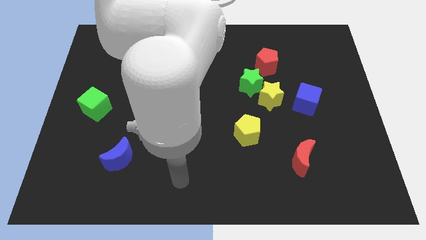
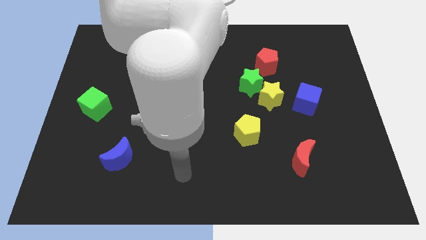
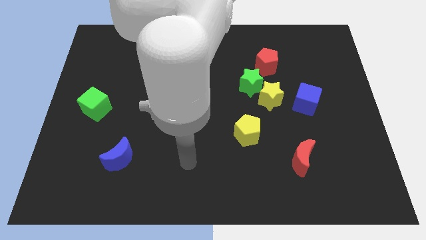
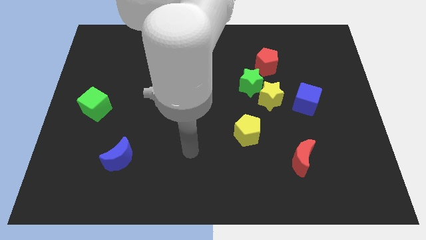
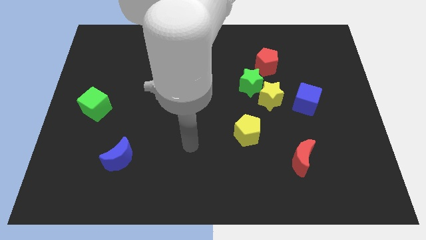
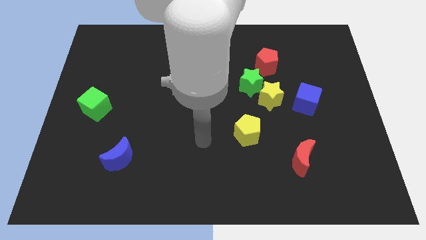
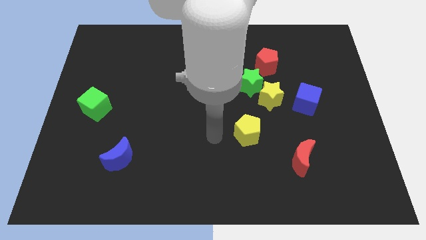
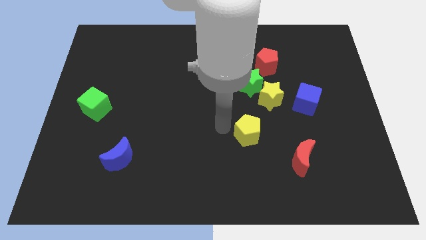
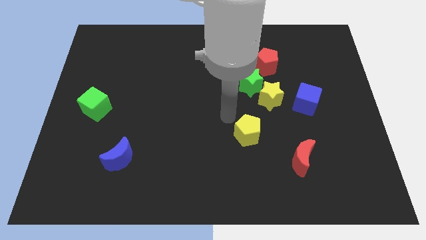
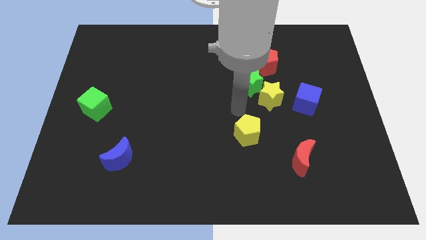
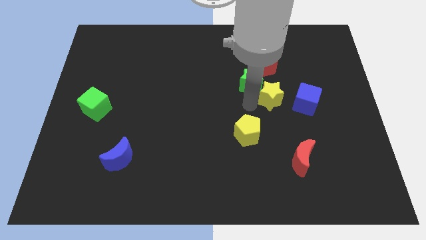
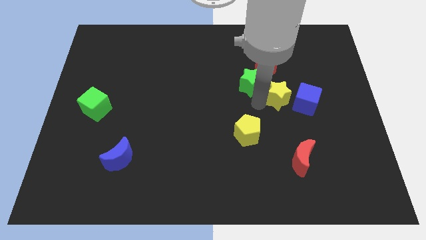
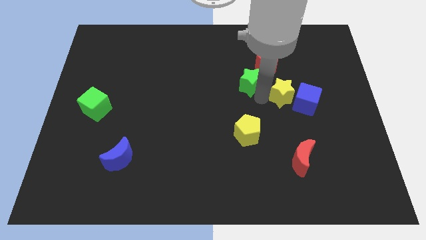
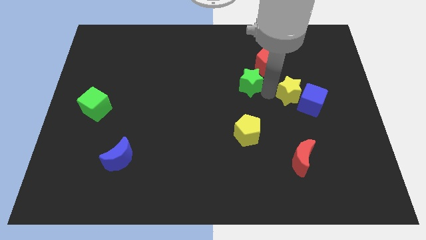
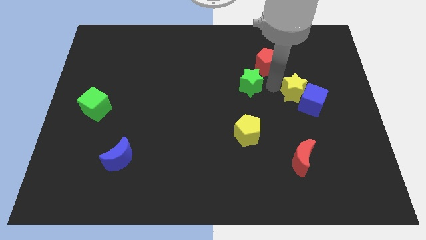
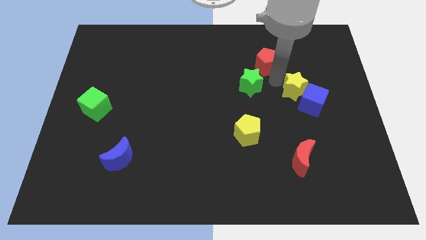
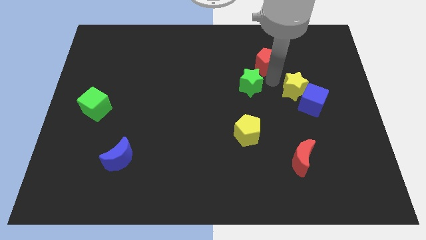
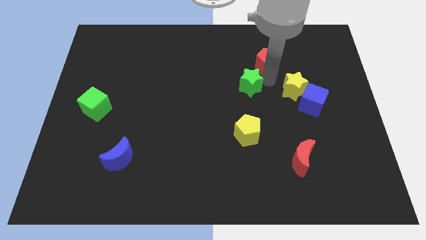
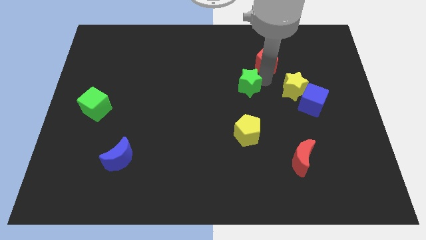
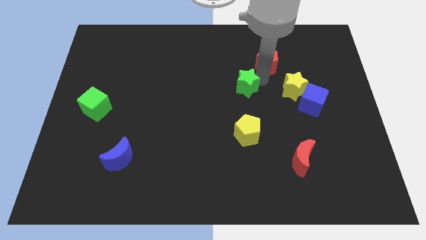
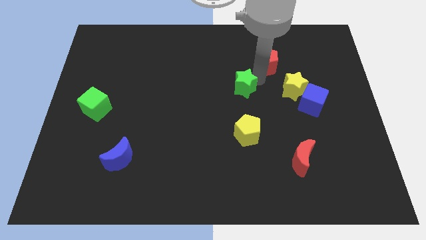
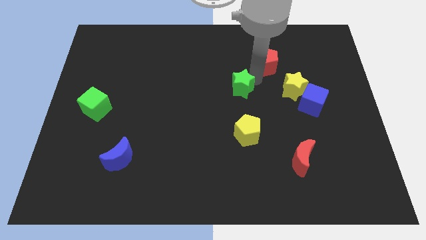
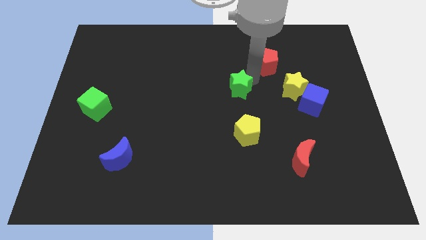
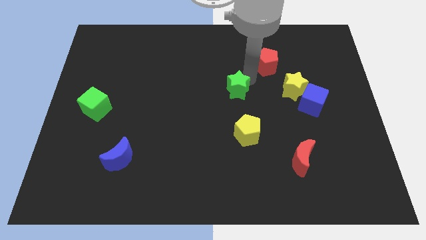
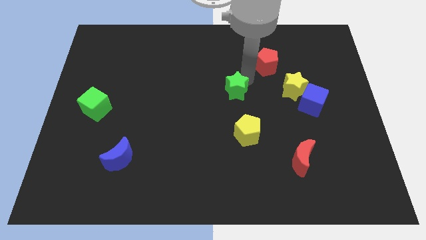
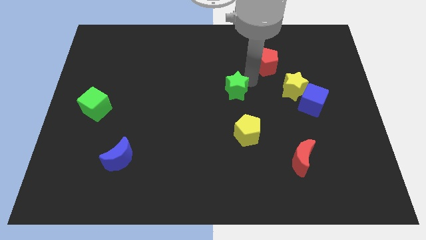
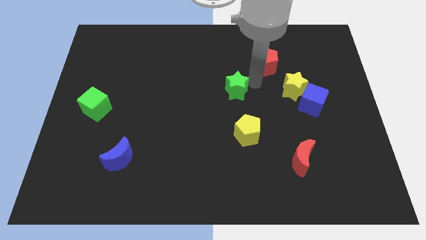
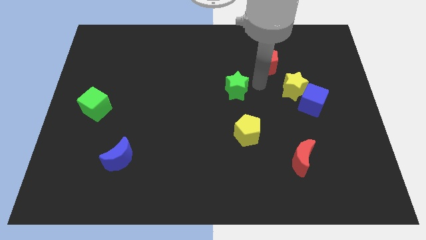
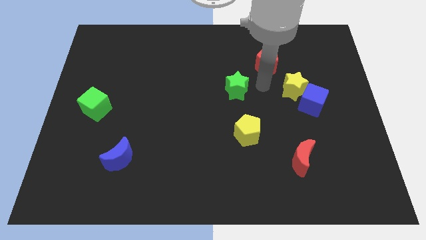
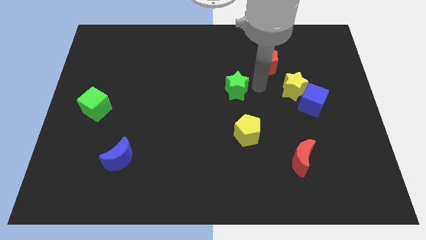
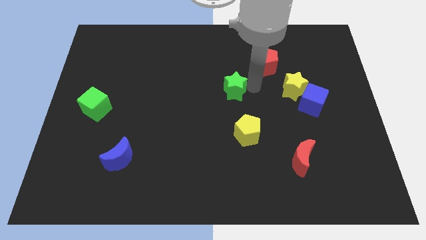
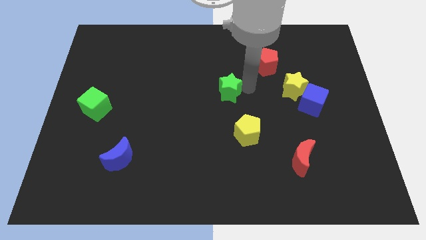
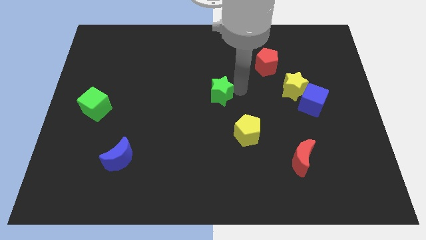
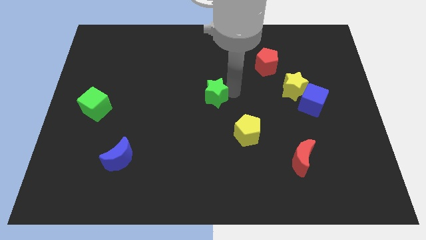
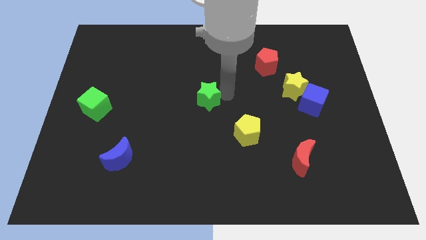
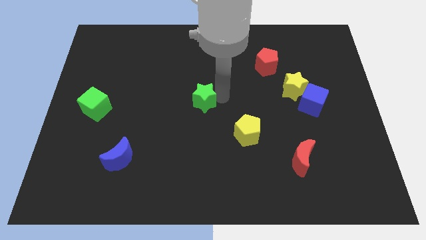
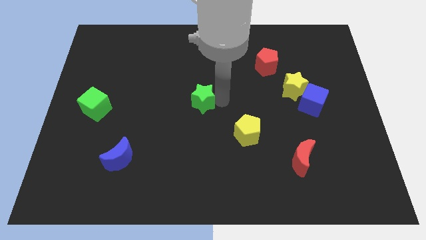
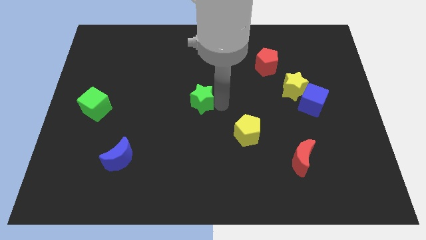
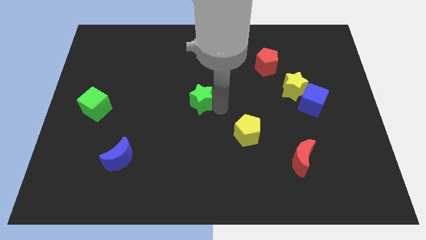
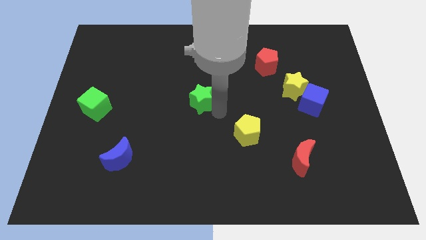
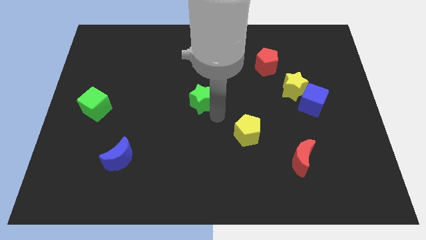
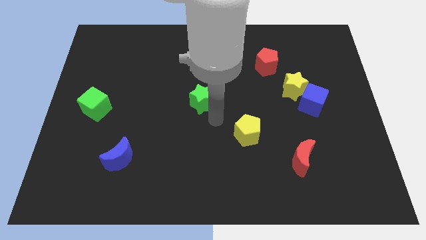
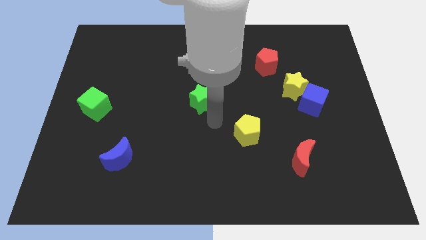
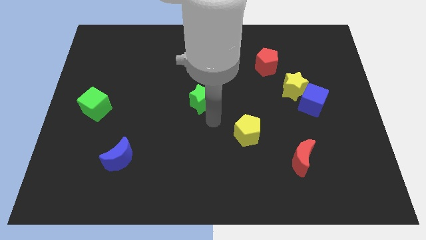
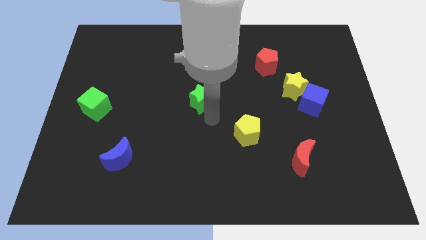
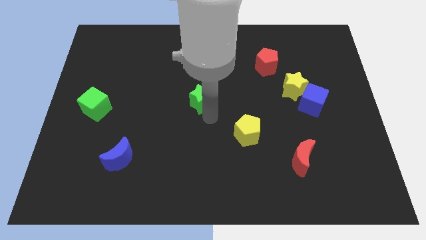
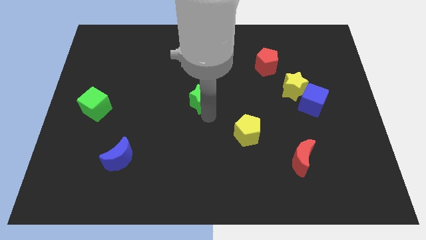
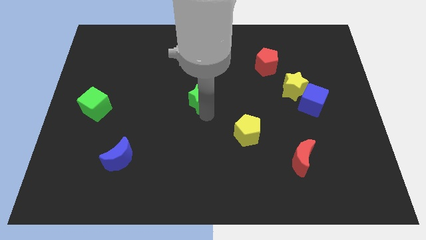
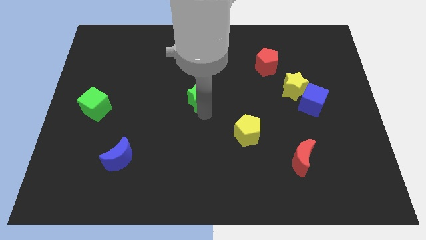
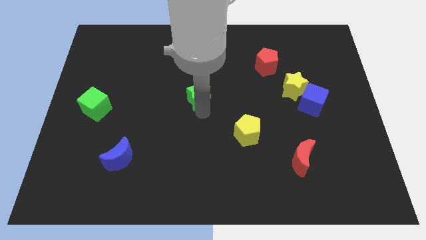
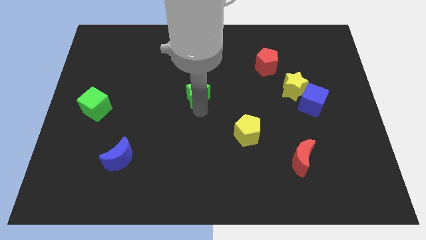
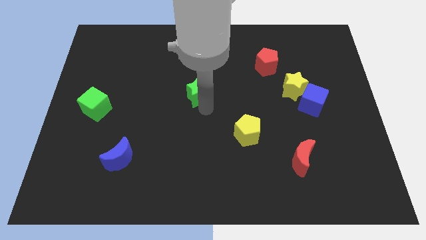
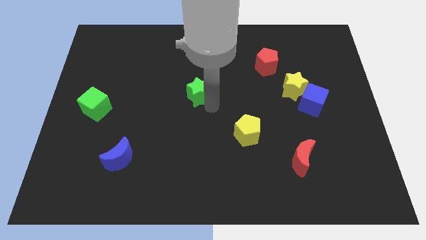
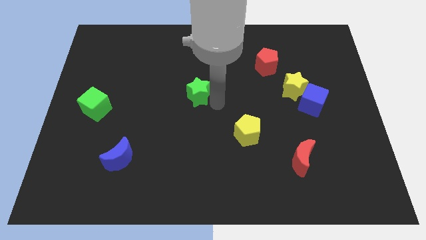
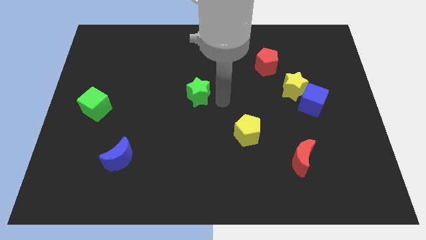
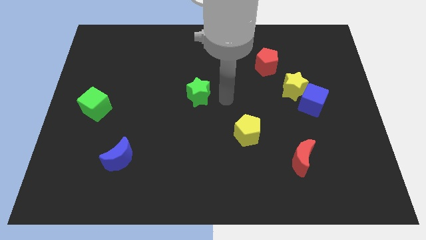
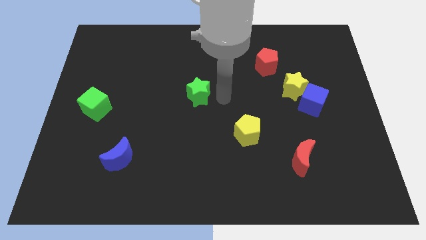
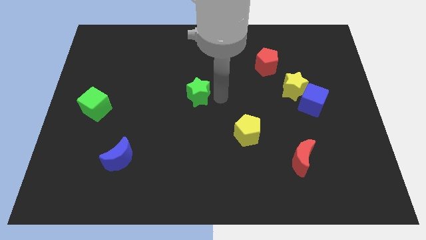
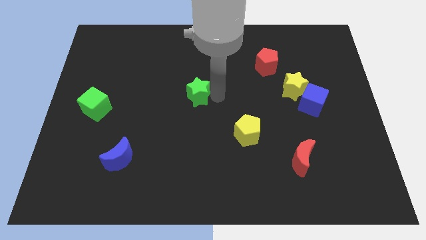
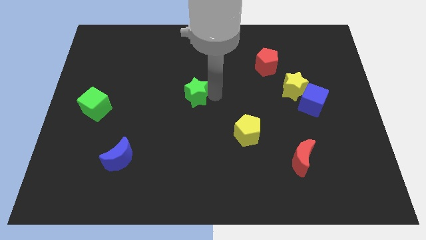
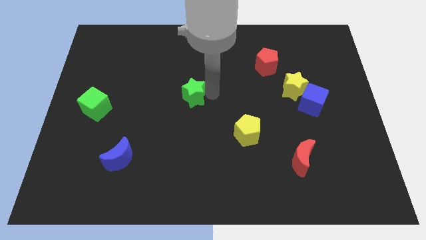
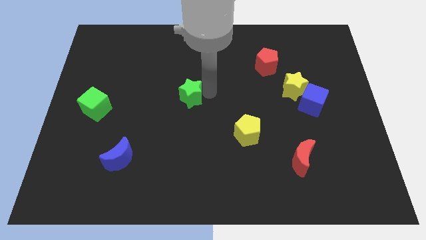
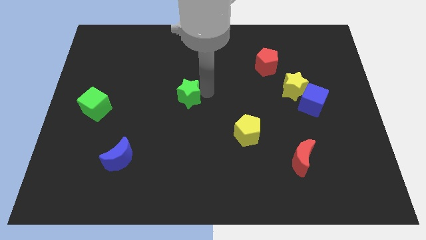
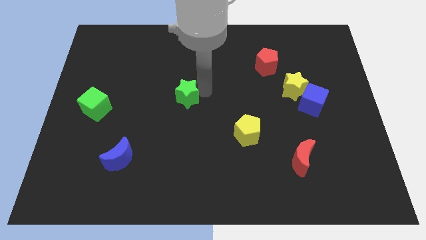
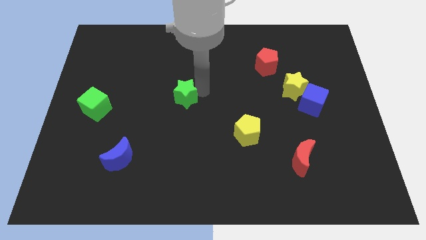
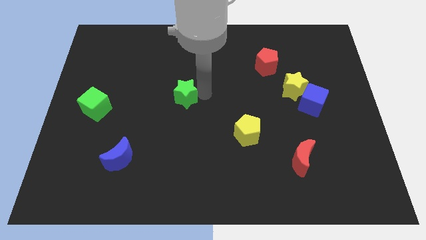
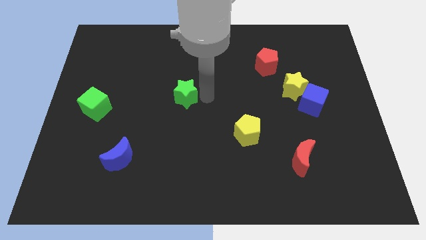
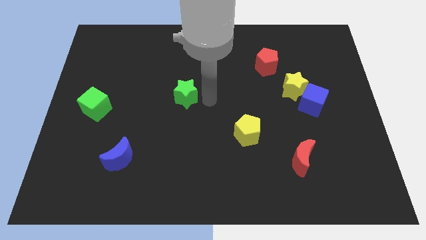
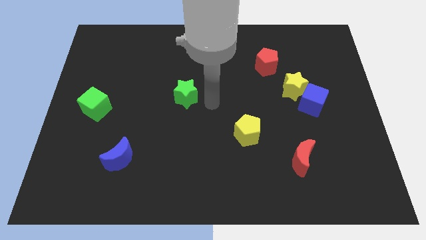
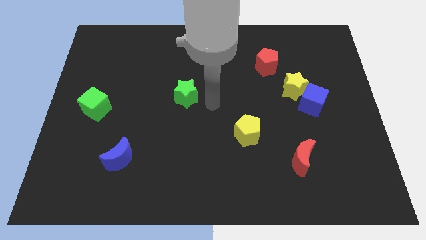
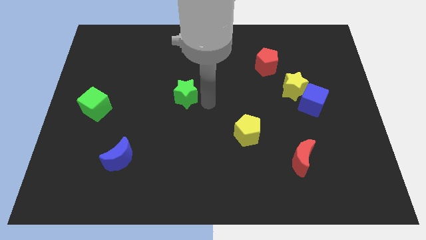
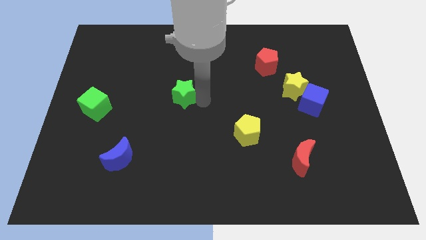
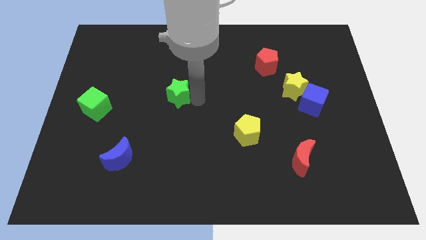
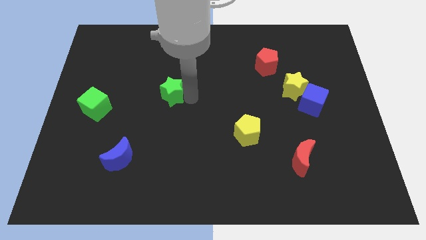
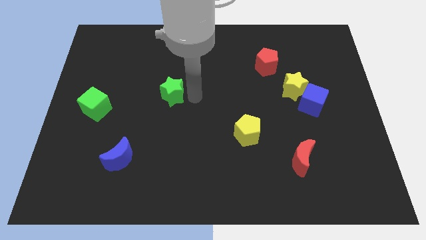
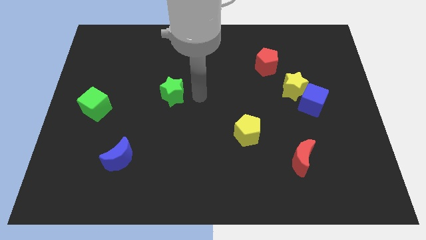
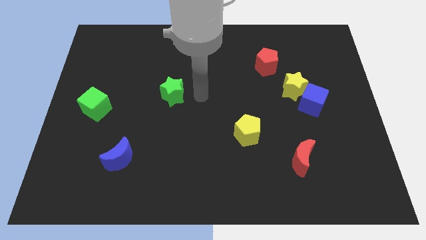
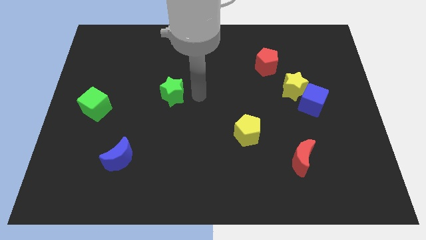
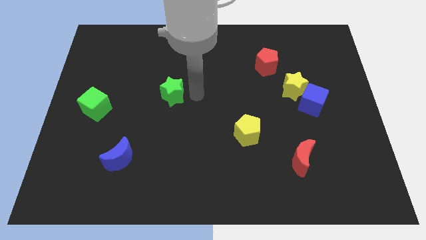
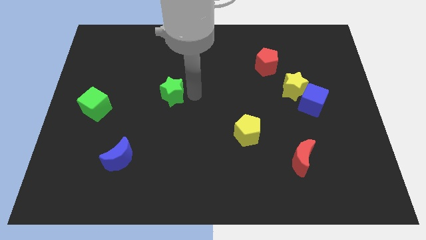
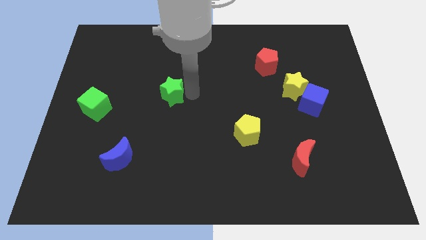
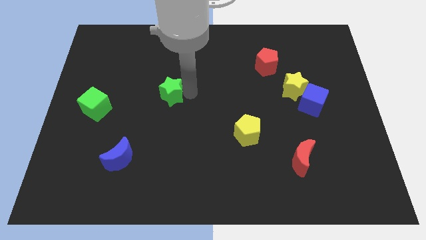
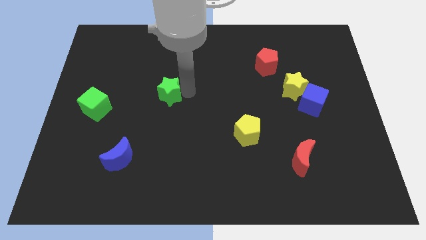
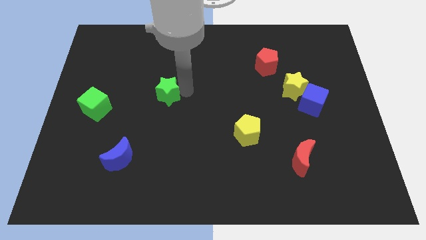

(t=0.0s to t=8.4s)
slide the green star to the left
